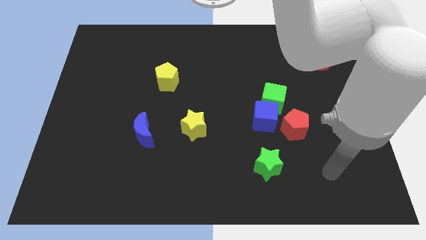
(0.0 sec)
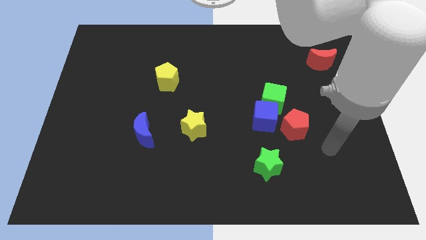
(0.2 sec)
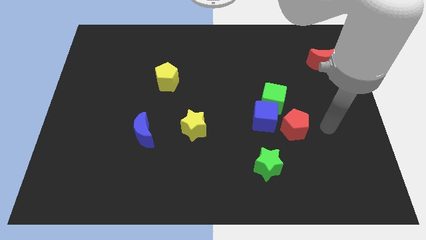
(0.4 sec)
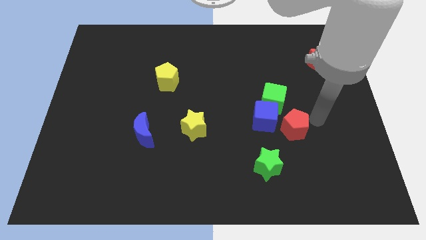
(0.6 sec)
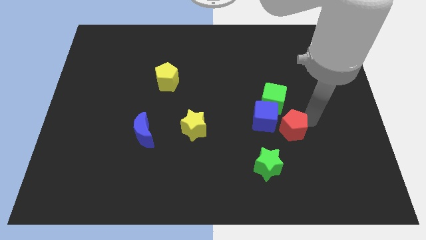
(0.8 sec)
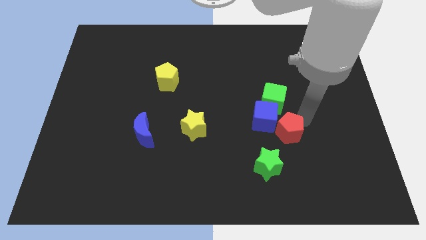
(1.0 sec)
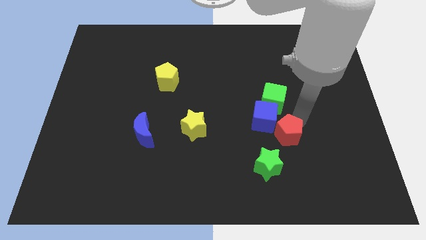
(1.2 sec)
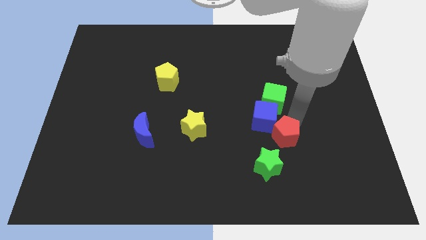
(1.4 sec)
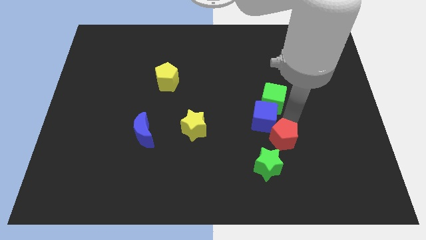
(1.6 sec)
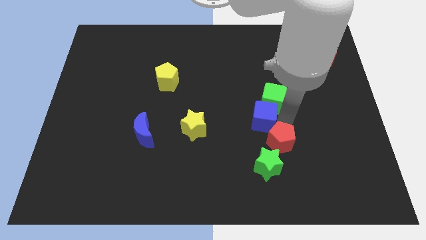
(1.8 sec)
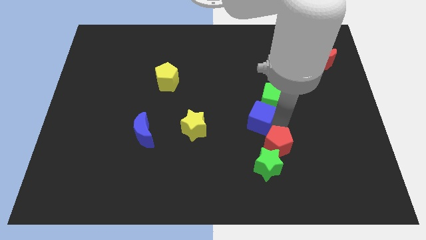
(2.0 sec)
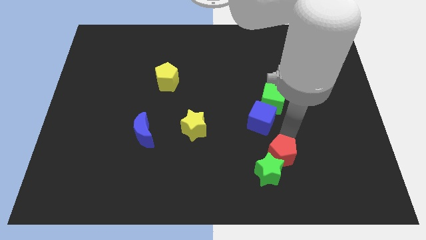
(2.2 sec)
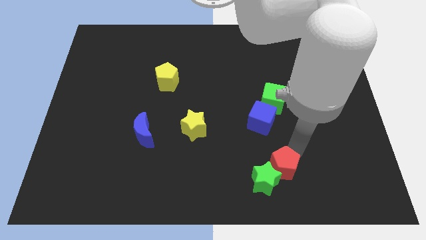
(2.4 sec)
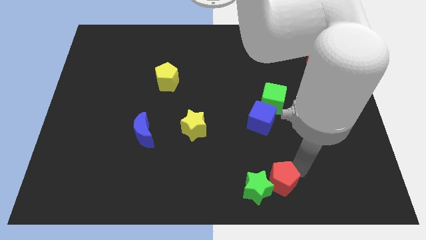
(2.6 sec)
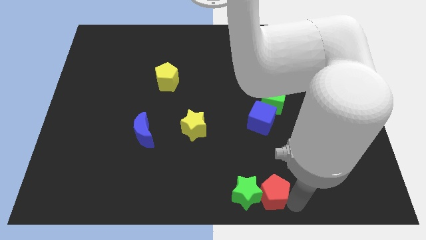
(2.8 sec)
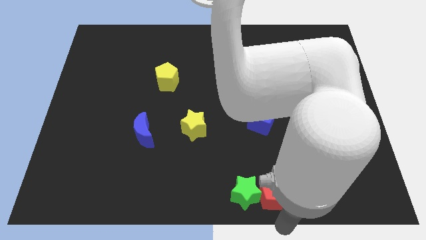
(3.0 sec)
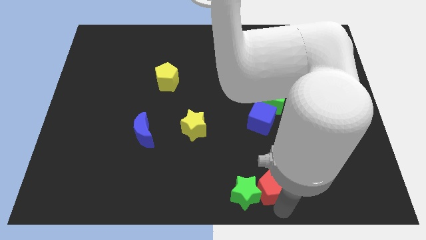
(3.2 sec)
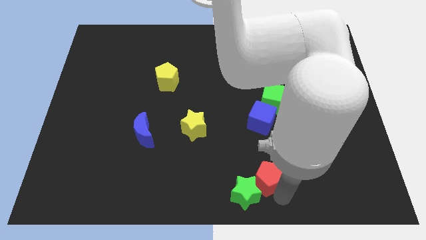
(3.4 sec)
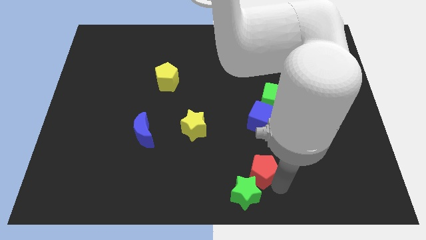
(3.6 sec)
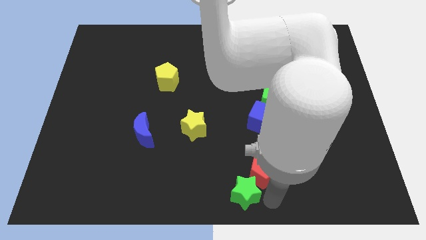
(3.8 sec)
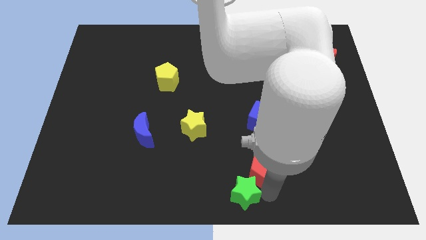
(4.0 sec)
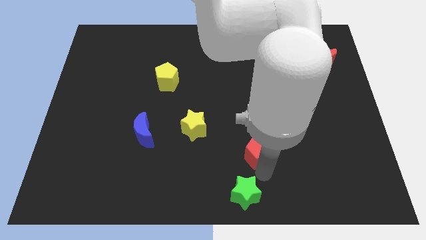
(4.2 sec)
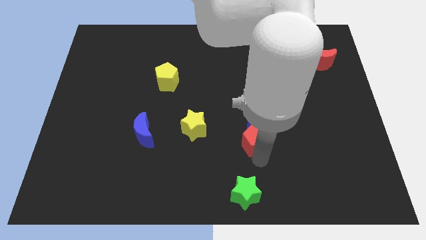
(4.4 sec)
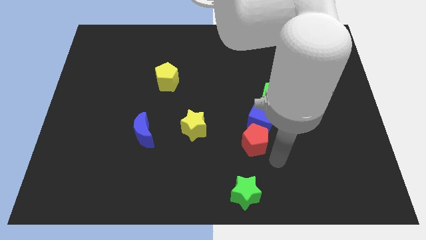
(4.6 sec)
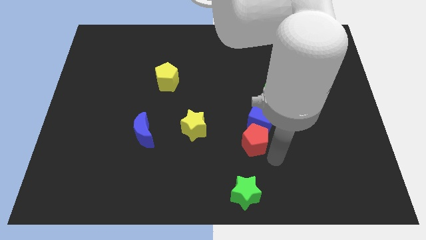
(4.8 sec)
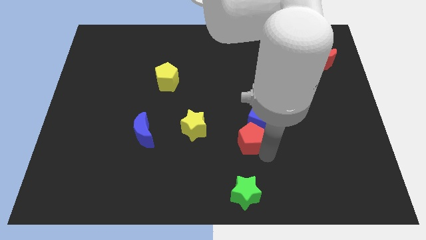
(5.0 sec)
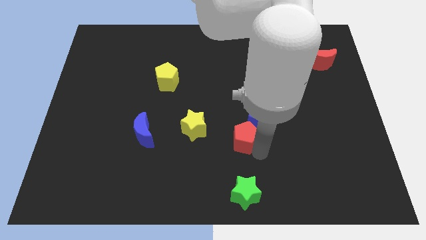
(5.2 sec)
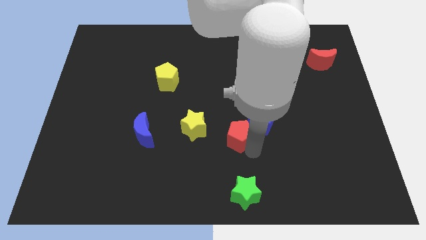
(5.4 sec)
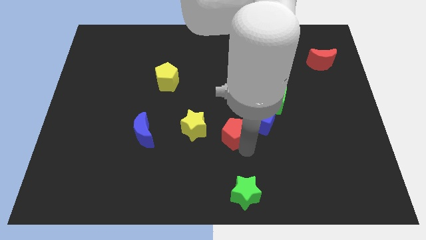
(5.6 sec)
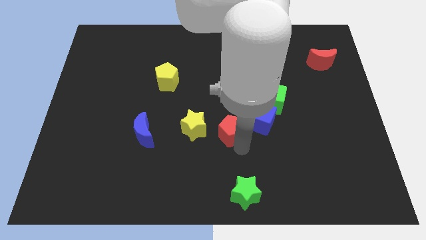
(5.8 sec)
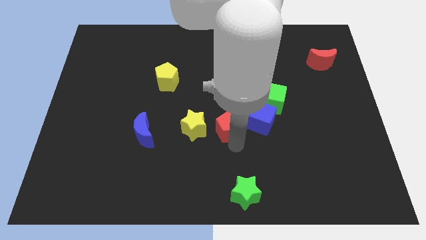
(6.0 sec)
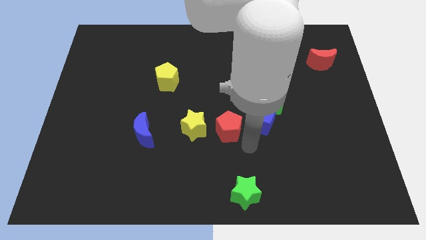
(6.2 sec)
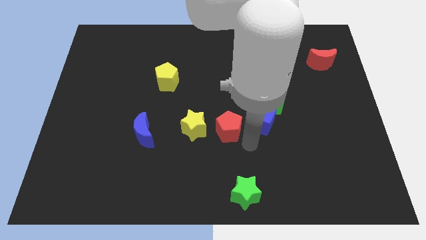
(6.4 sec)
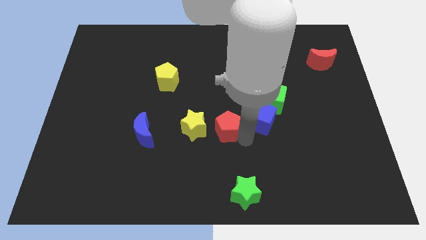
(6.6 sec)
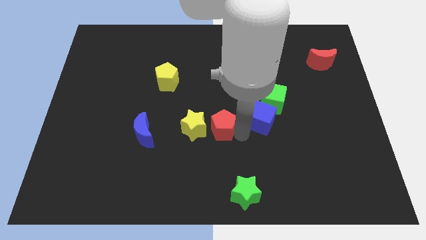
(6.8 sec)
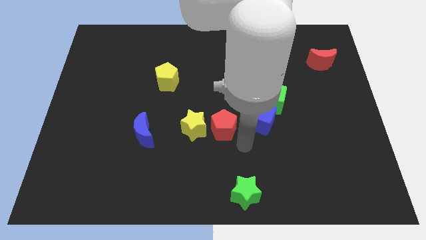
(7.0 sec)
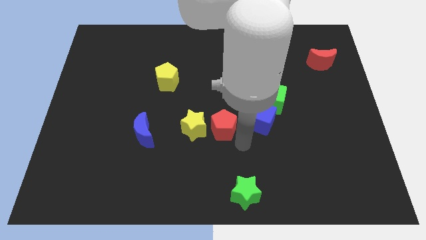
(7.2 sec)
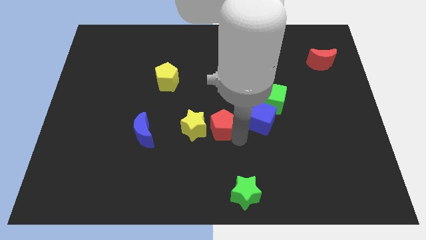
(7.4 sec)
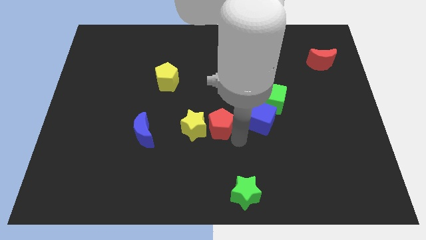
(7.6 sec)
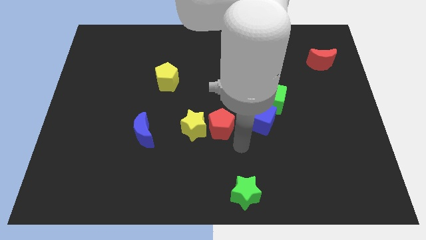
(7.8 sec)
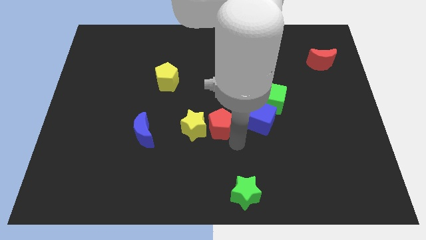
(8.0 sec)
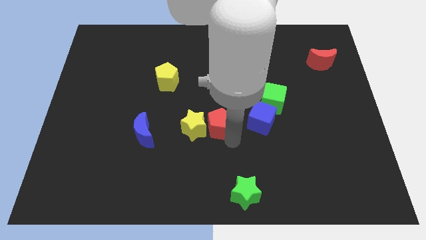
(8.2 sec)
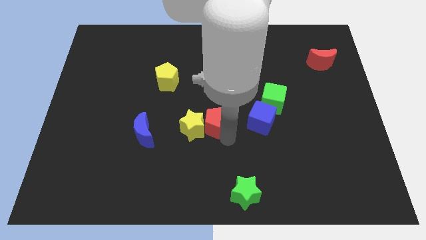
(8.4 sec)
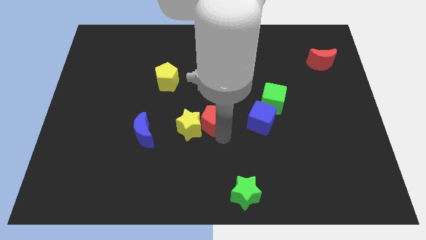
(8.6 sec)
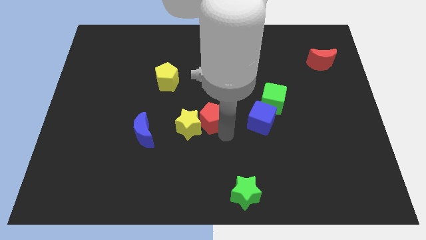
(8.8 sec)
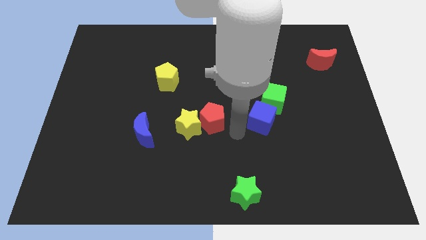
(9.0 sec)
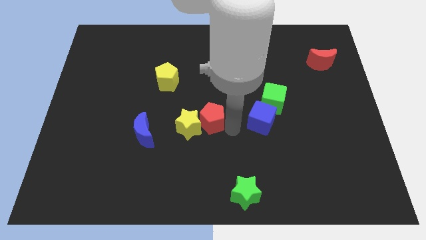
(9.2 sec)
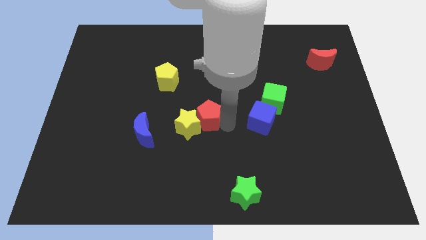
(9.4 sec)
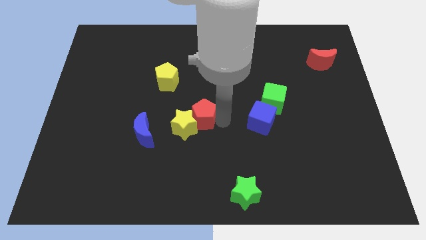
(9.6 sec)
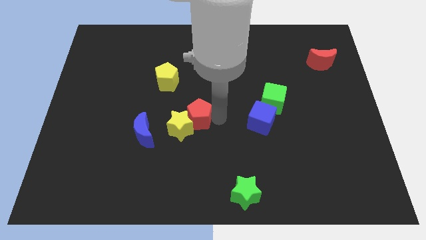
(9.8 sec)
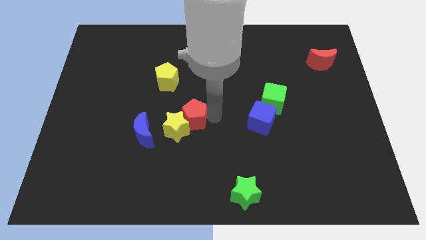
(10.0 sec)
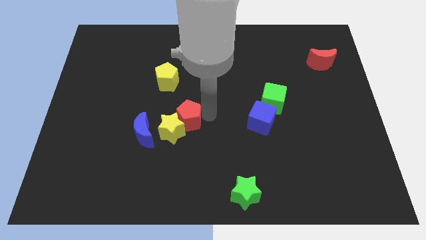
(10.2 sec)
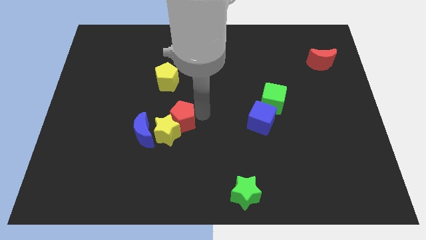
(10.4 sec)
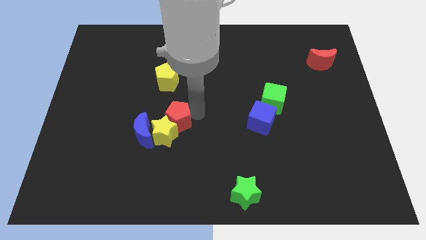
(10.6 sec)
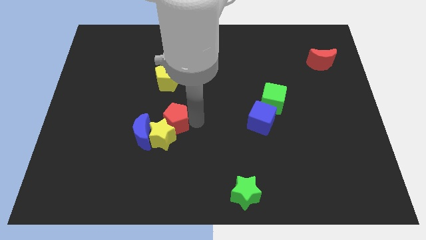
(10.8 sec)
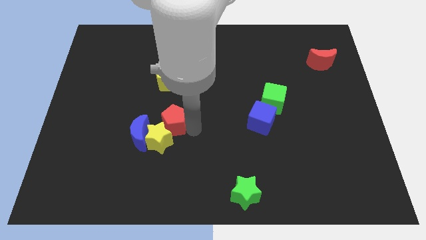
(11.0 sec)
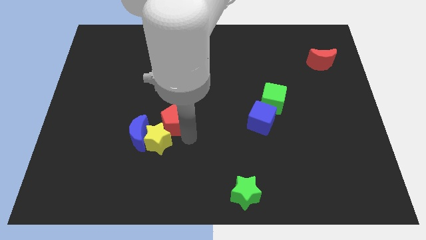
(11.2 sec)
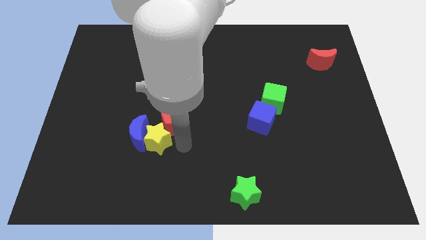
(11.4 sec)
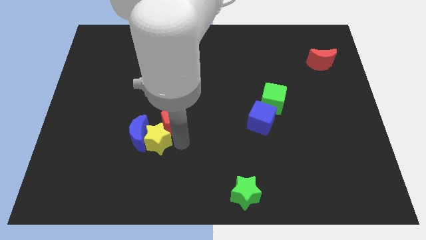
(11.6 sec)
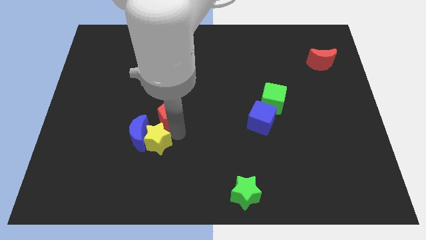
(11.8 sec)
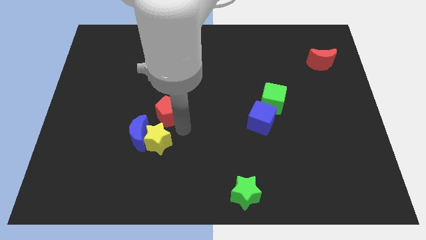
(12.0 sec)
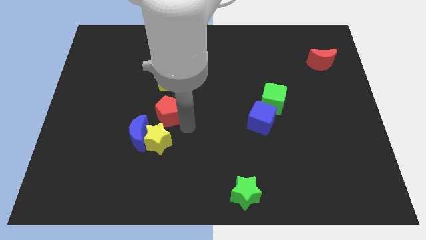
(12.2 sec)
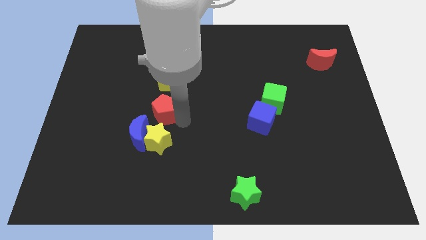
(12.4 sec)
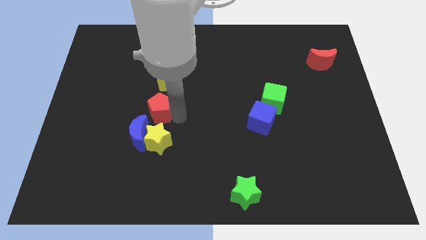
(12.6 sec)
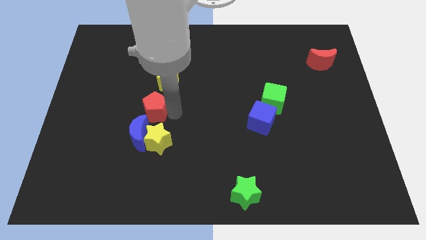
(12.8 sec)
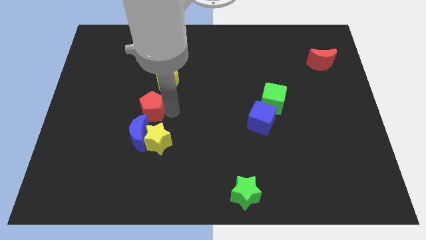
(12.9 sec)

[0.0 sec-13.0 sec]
push the red pentagon to the bottom left of the yellow pentagon
